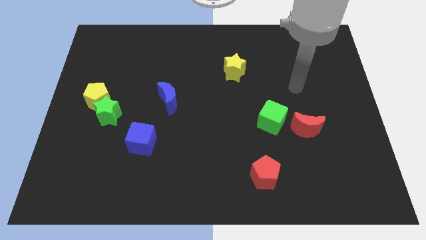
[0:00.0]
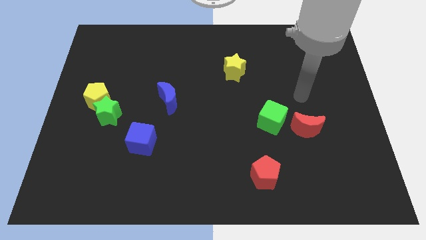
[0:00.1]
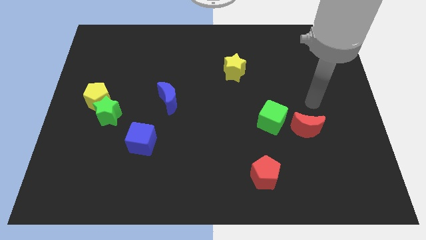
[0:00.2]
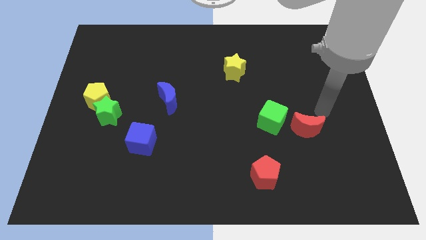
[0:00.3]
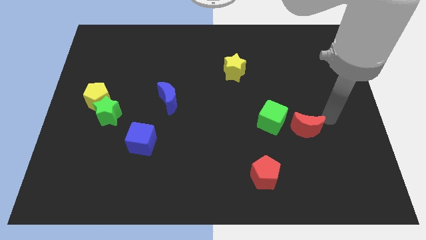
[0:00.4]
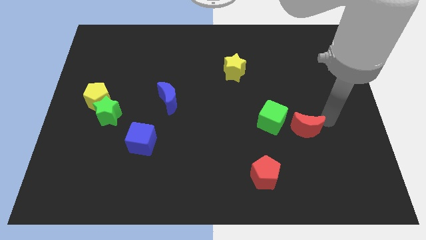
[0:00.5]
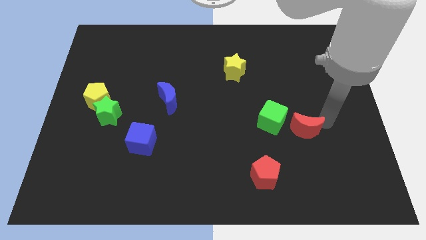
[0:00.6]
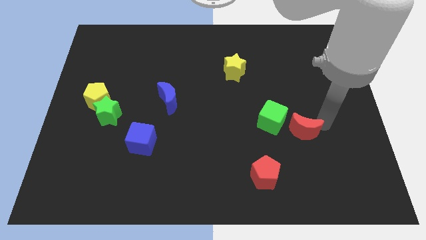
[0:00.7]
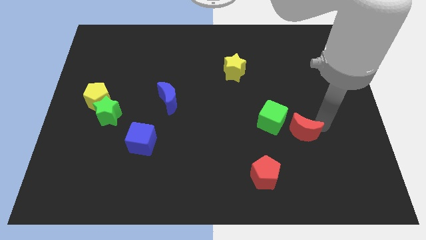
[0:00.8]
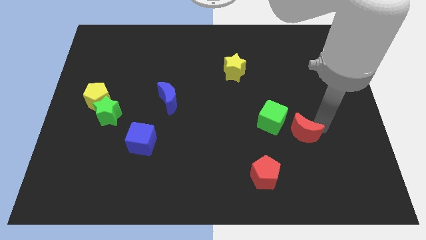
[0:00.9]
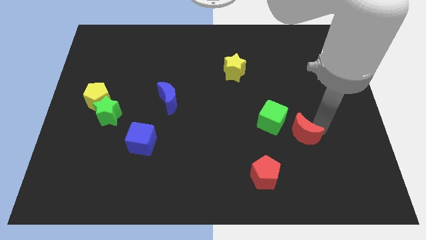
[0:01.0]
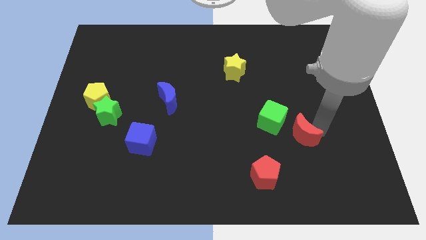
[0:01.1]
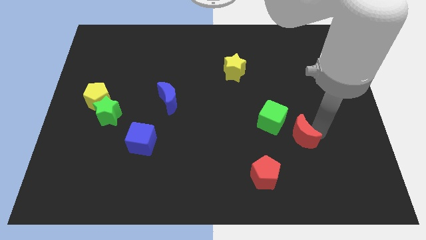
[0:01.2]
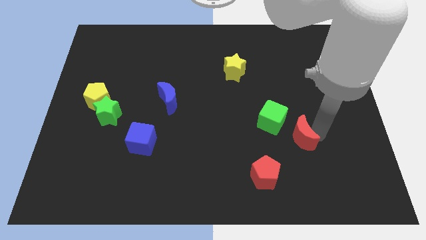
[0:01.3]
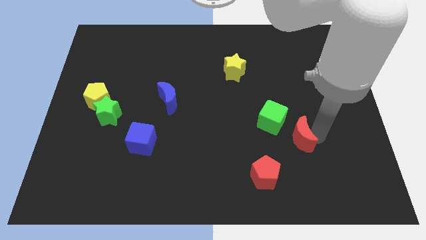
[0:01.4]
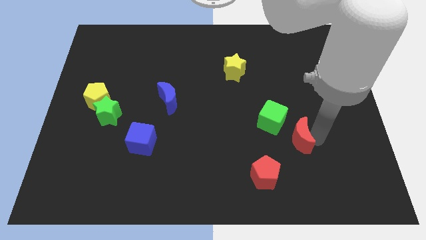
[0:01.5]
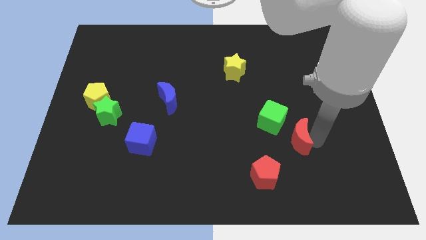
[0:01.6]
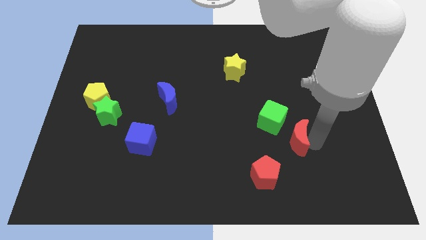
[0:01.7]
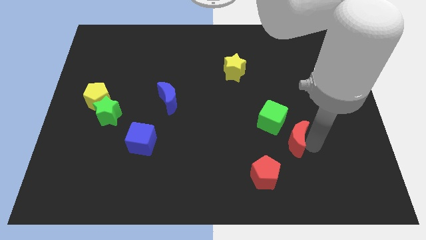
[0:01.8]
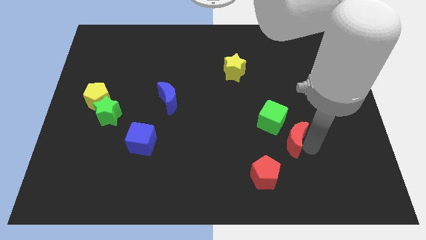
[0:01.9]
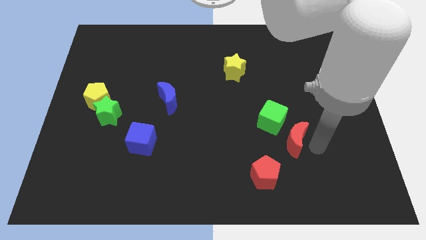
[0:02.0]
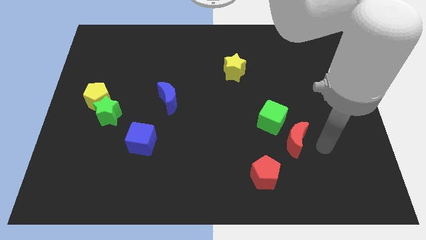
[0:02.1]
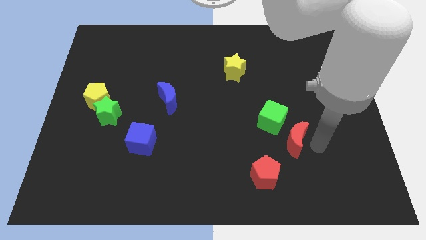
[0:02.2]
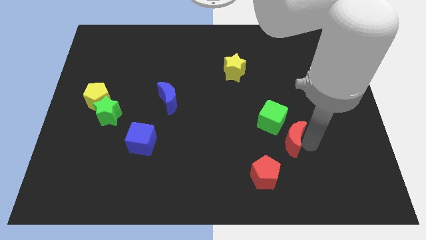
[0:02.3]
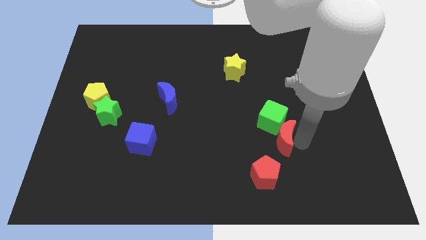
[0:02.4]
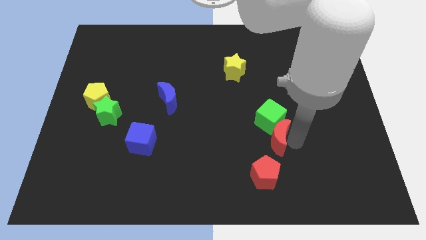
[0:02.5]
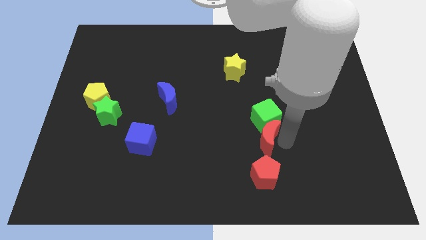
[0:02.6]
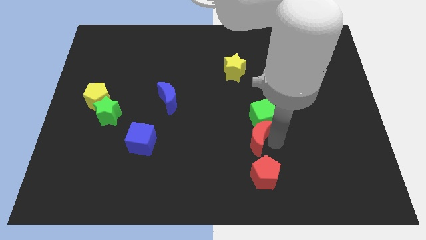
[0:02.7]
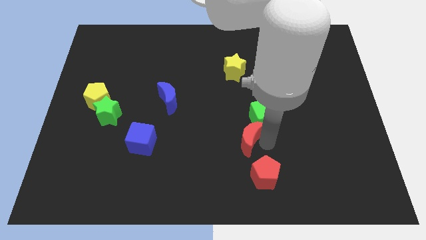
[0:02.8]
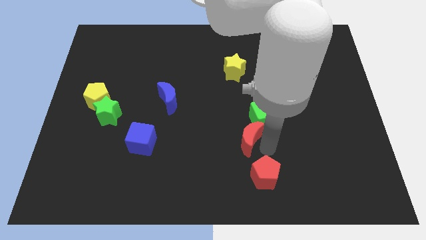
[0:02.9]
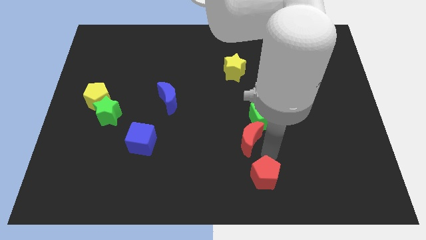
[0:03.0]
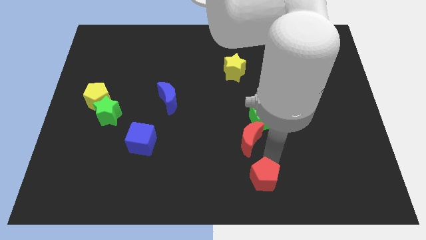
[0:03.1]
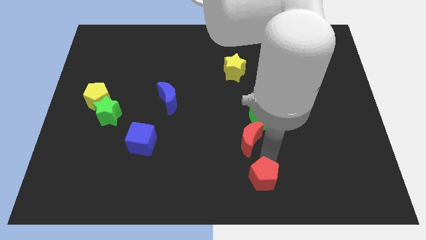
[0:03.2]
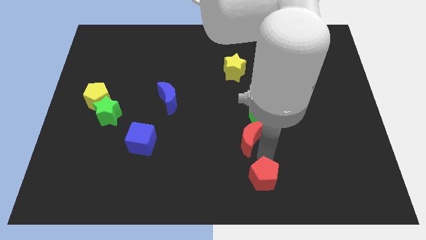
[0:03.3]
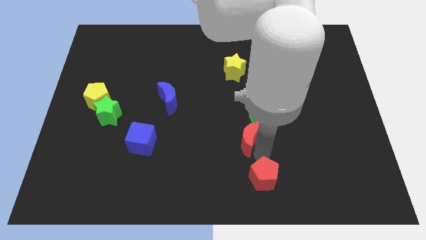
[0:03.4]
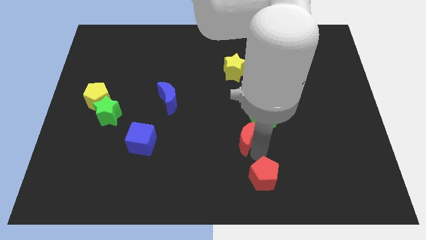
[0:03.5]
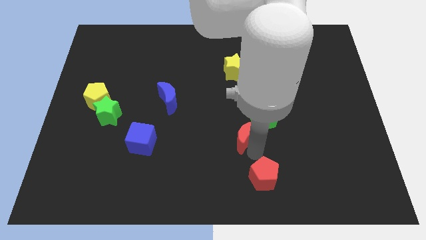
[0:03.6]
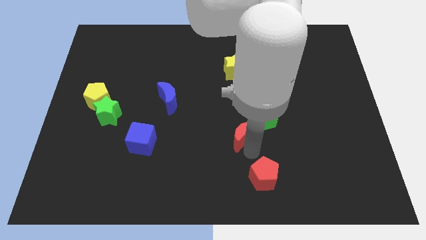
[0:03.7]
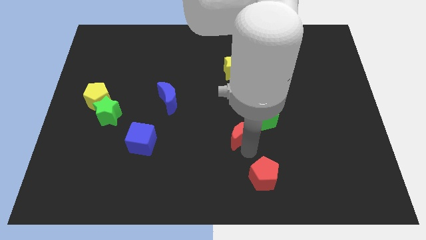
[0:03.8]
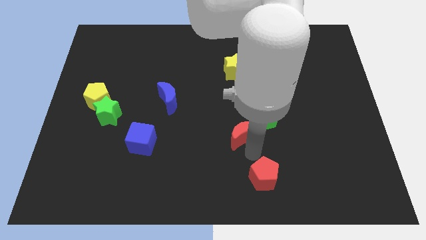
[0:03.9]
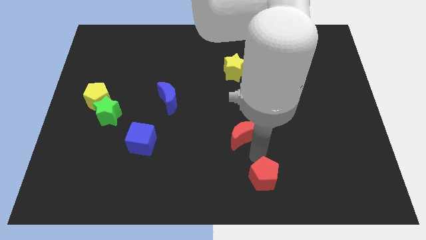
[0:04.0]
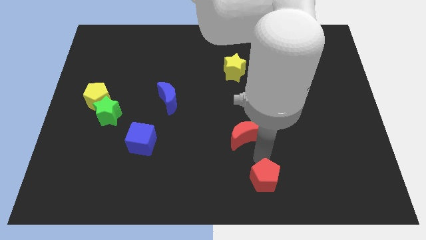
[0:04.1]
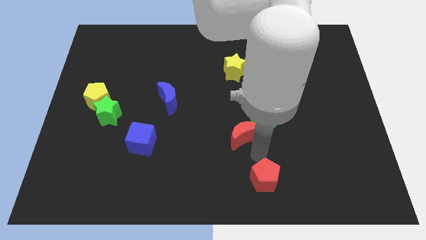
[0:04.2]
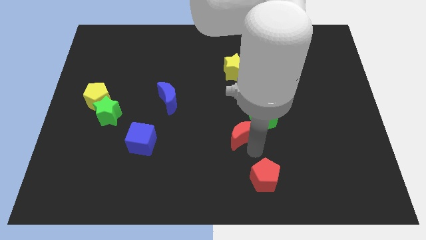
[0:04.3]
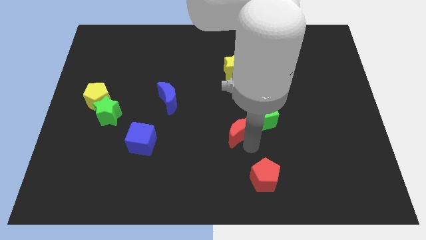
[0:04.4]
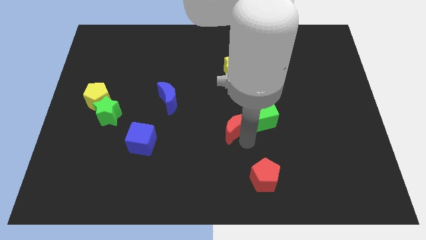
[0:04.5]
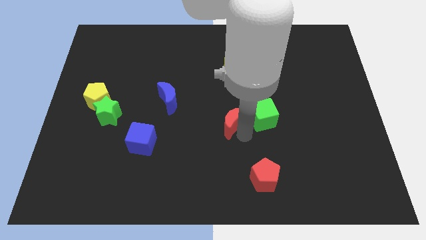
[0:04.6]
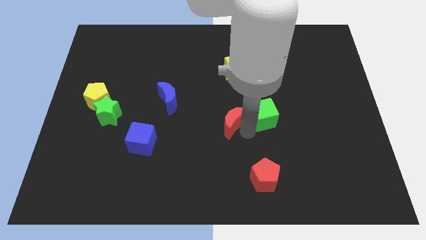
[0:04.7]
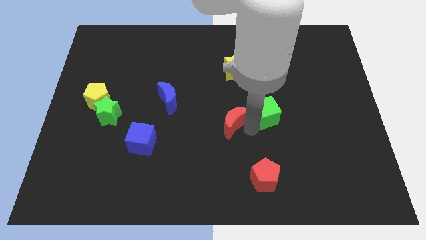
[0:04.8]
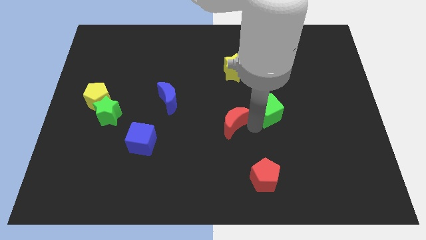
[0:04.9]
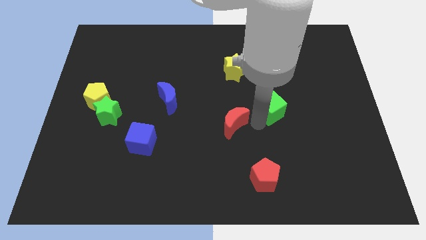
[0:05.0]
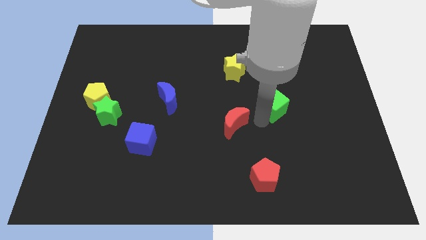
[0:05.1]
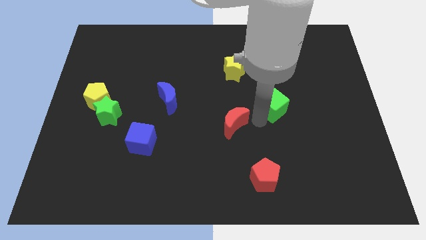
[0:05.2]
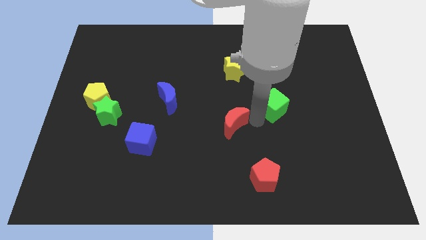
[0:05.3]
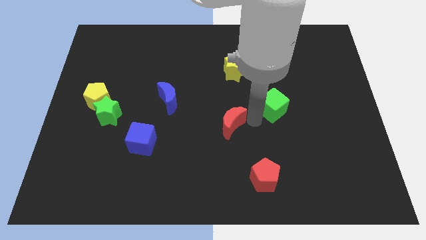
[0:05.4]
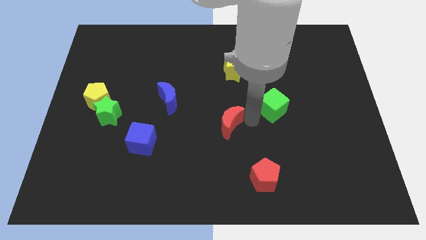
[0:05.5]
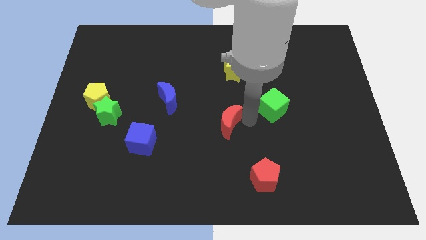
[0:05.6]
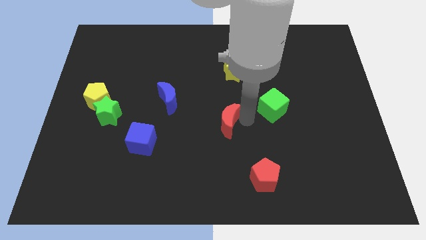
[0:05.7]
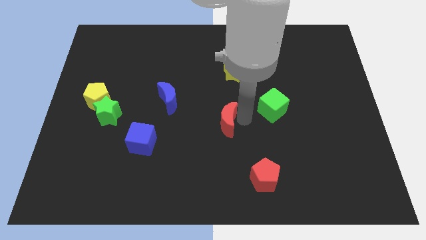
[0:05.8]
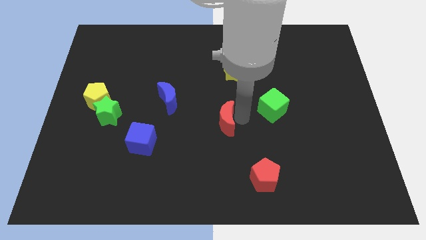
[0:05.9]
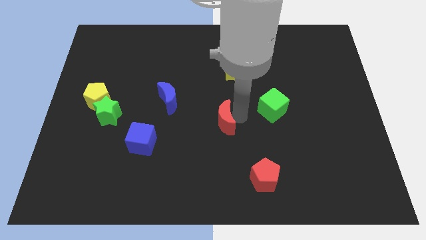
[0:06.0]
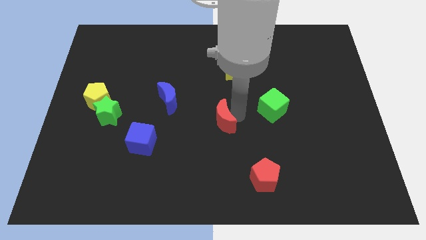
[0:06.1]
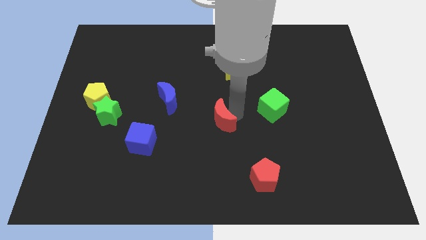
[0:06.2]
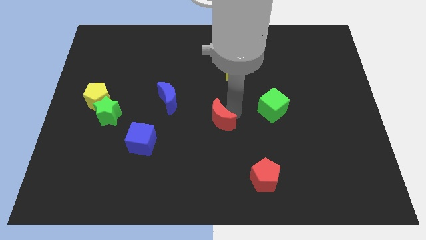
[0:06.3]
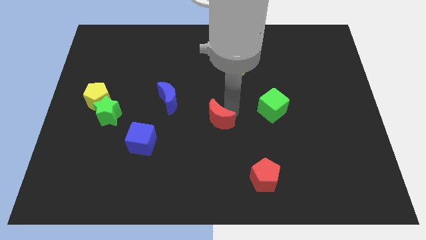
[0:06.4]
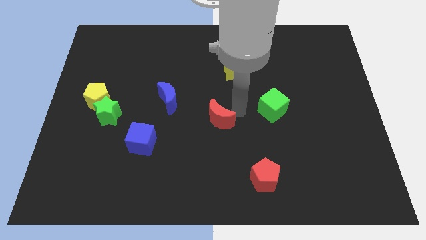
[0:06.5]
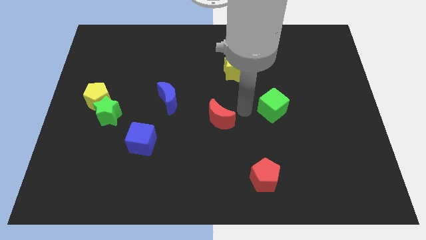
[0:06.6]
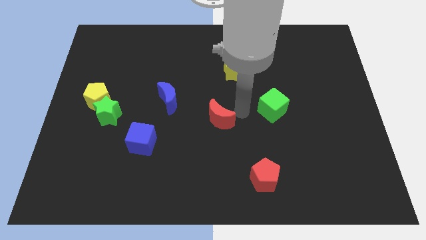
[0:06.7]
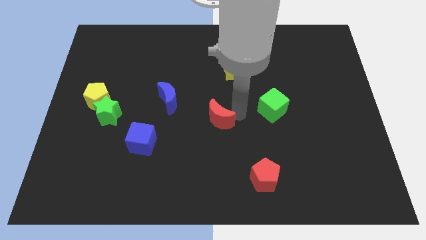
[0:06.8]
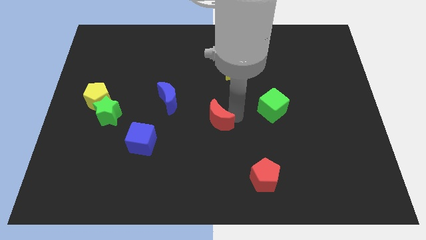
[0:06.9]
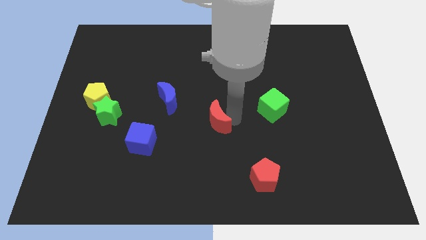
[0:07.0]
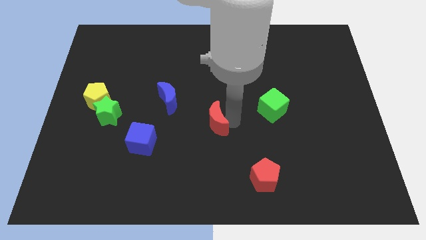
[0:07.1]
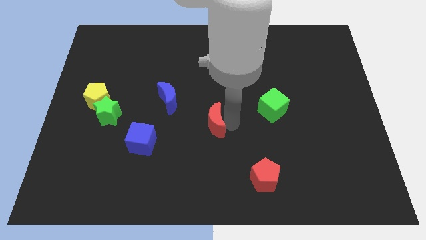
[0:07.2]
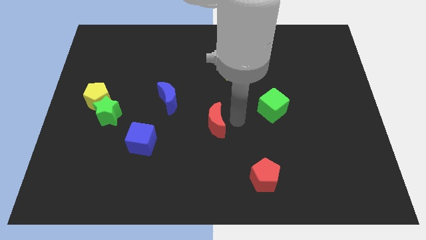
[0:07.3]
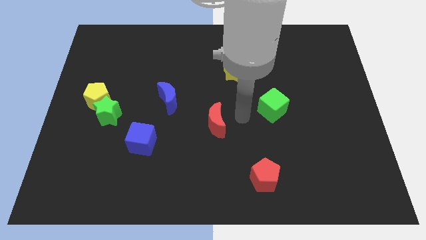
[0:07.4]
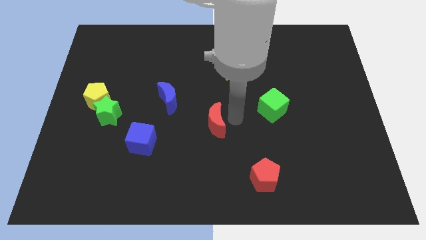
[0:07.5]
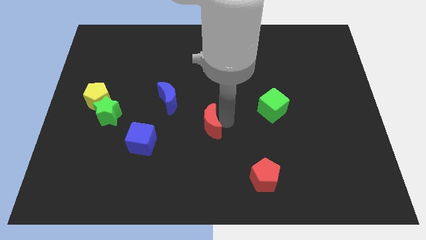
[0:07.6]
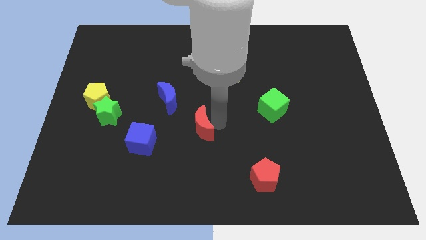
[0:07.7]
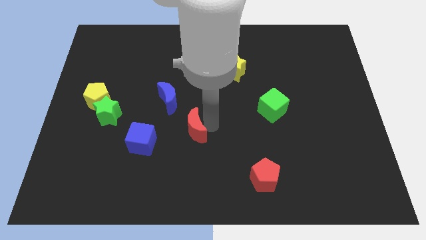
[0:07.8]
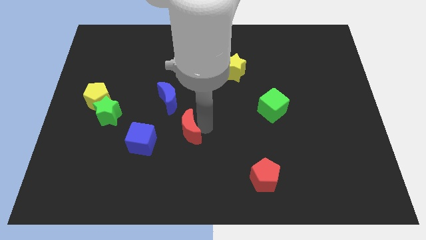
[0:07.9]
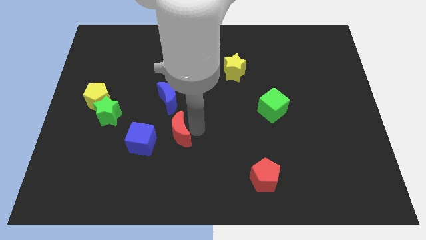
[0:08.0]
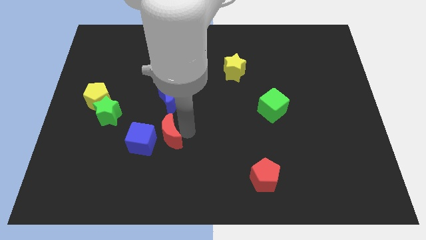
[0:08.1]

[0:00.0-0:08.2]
slide the red moon to the blue cube

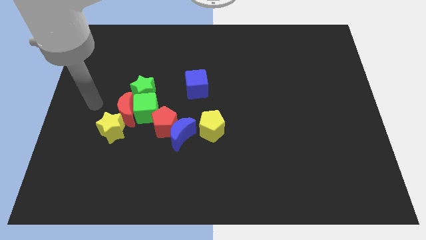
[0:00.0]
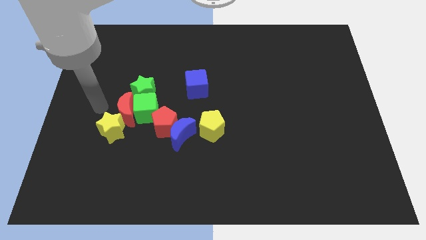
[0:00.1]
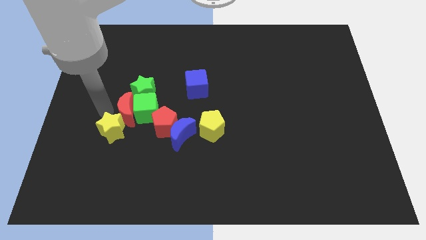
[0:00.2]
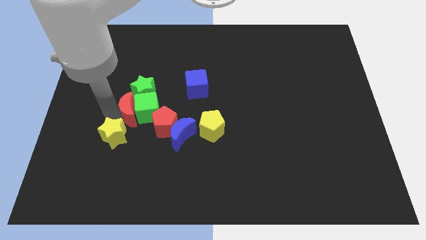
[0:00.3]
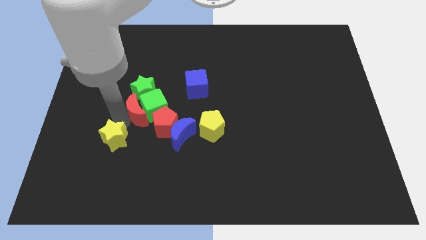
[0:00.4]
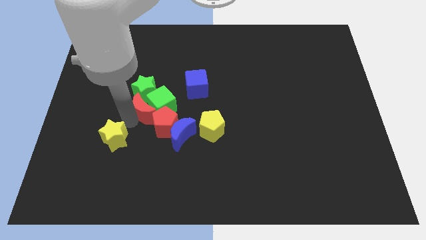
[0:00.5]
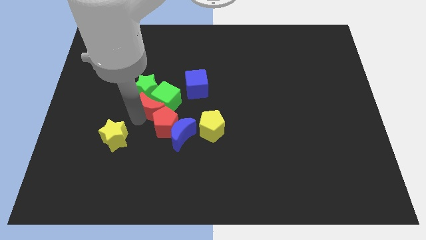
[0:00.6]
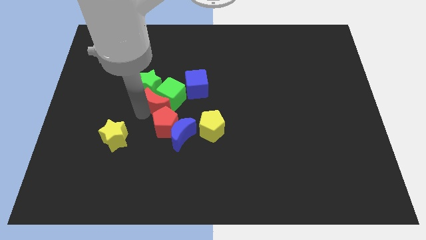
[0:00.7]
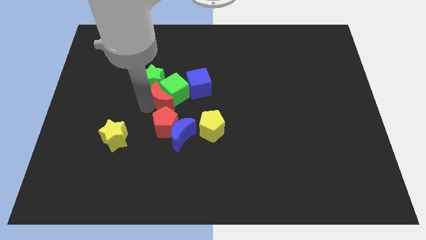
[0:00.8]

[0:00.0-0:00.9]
push the green cube to the blue cube
